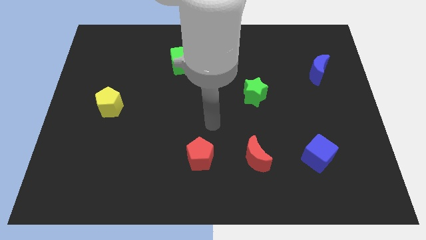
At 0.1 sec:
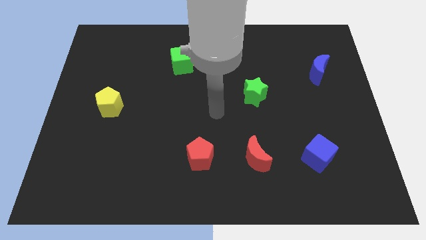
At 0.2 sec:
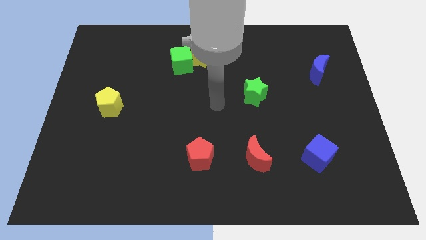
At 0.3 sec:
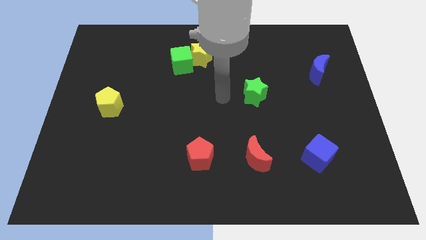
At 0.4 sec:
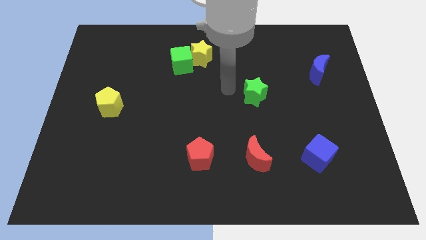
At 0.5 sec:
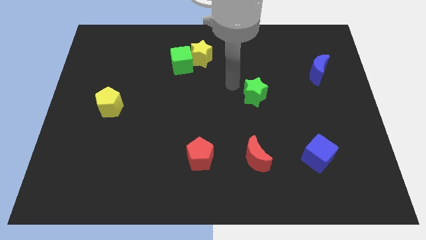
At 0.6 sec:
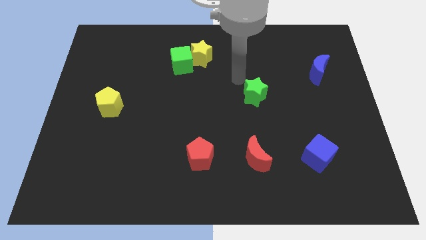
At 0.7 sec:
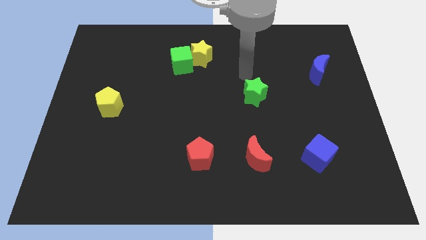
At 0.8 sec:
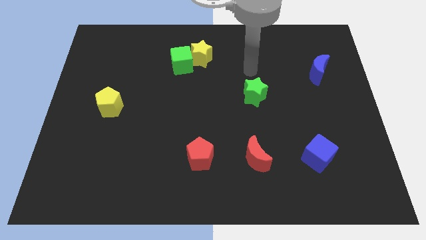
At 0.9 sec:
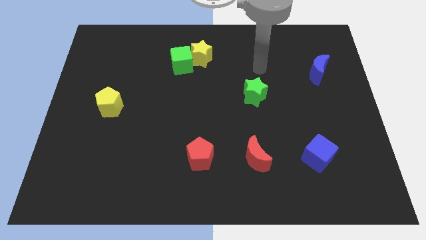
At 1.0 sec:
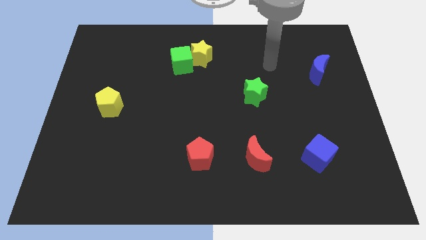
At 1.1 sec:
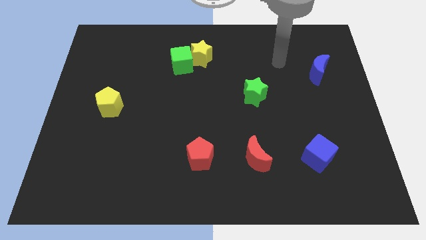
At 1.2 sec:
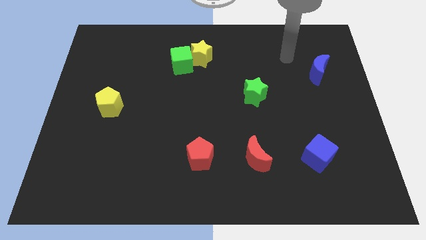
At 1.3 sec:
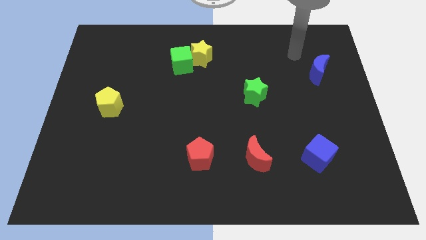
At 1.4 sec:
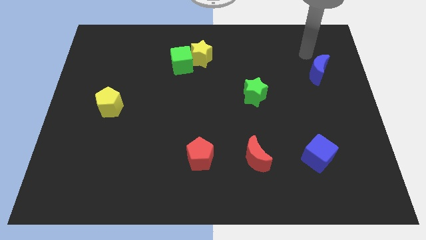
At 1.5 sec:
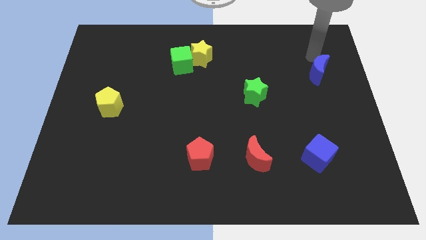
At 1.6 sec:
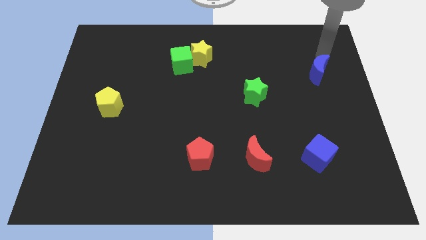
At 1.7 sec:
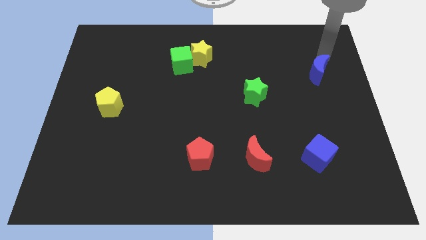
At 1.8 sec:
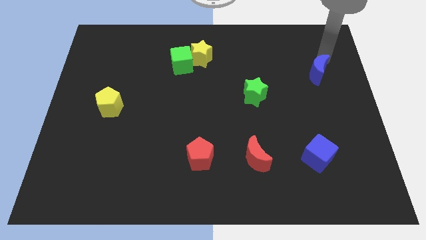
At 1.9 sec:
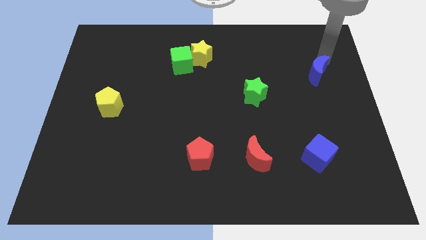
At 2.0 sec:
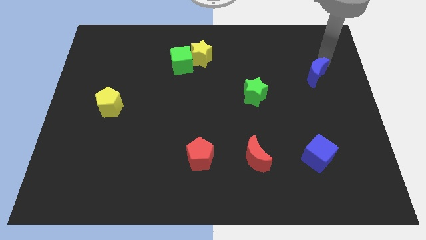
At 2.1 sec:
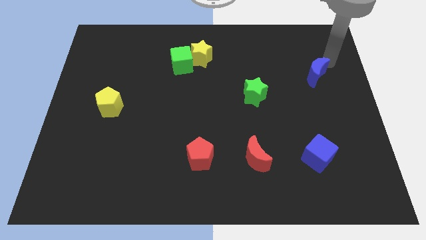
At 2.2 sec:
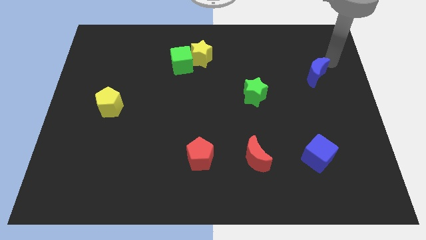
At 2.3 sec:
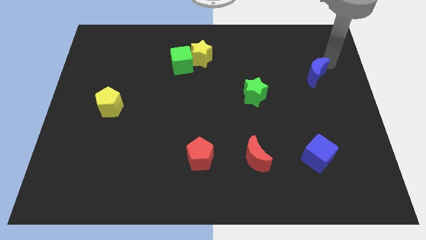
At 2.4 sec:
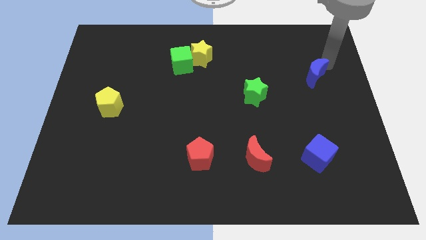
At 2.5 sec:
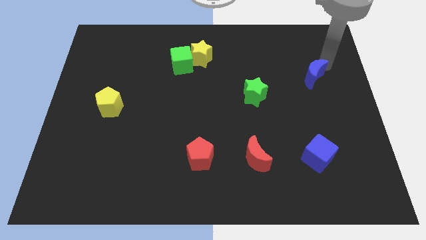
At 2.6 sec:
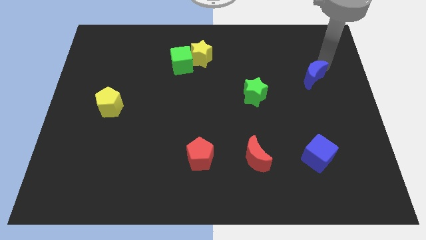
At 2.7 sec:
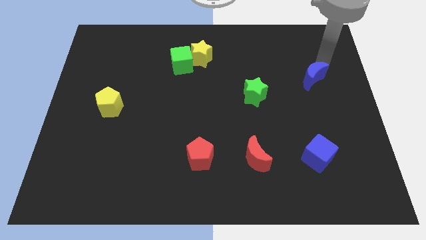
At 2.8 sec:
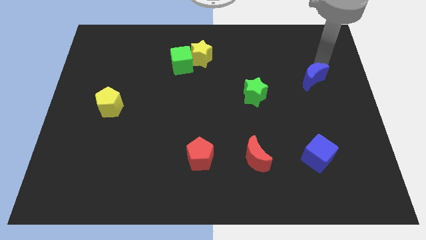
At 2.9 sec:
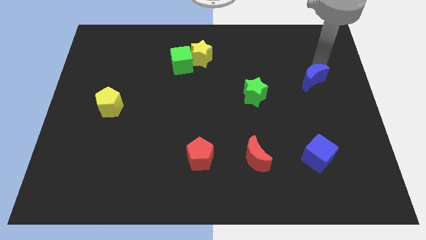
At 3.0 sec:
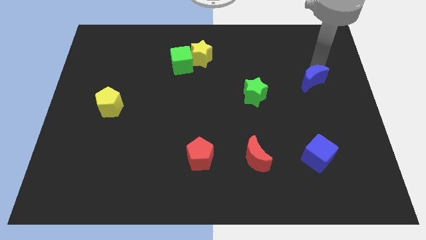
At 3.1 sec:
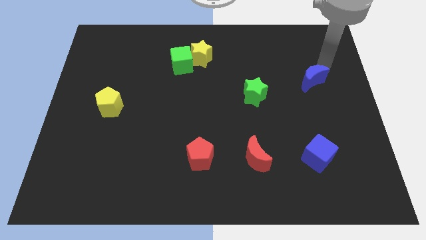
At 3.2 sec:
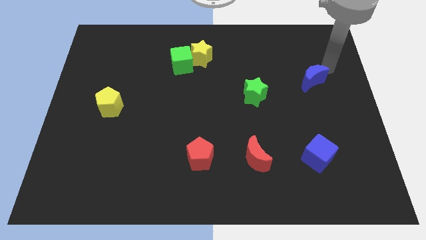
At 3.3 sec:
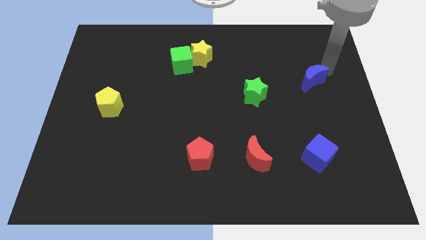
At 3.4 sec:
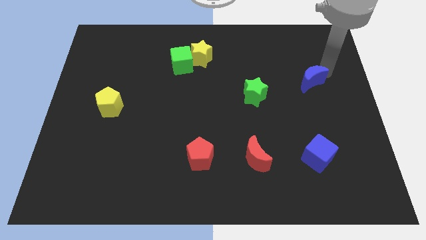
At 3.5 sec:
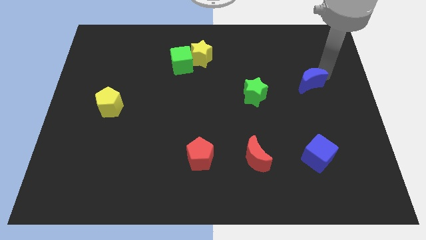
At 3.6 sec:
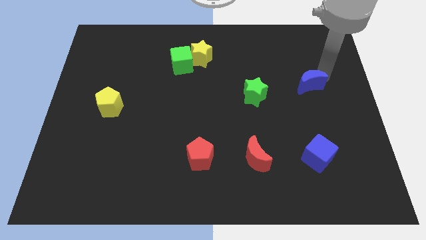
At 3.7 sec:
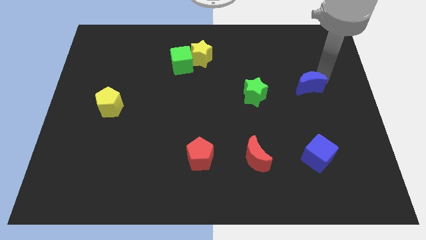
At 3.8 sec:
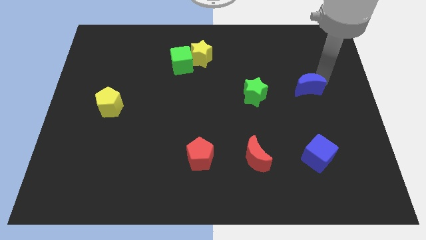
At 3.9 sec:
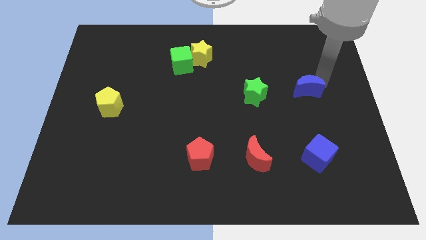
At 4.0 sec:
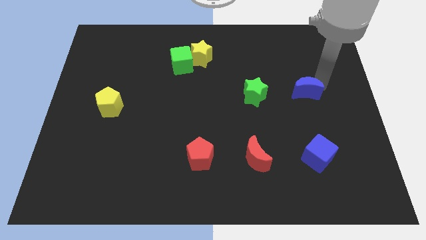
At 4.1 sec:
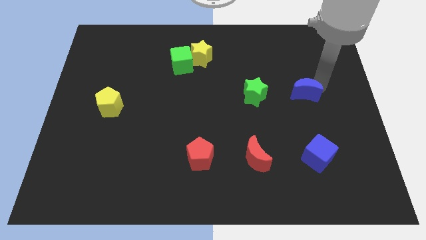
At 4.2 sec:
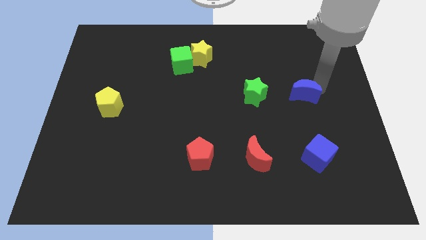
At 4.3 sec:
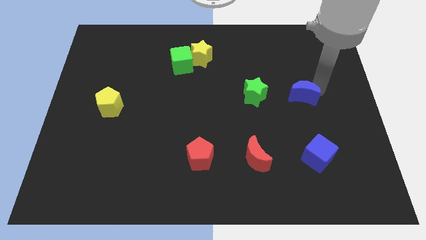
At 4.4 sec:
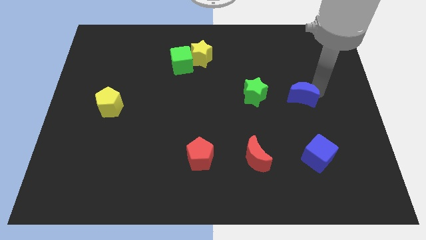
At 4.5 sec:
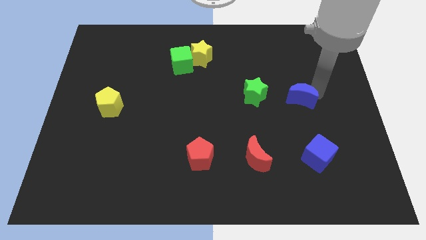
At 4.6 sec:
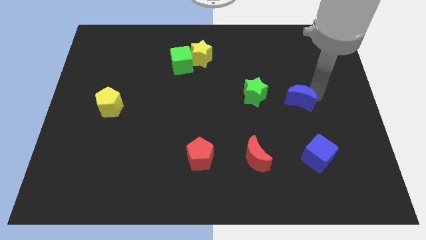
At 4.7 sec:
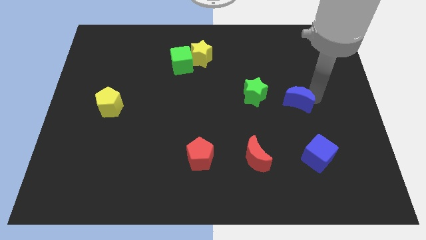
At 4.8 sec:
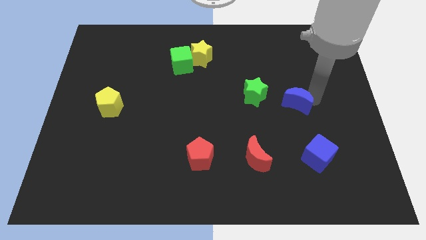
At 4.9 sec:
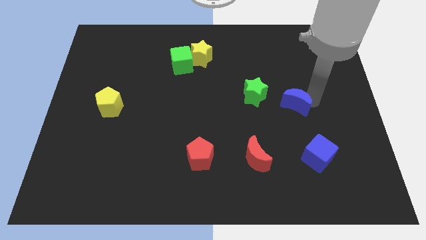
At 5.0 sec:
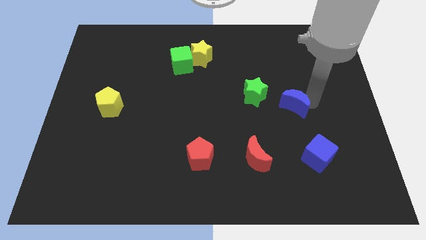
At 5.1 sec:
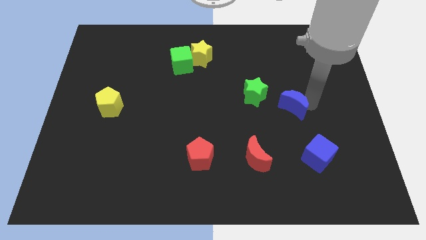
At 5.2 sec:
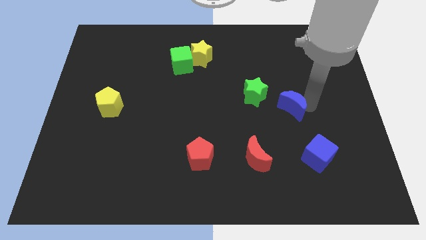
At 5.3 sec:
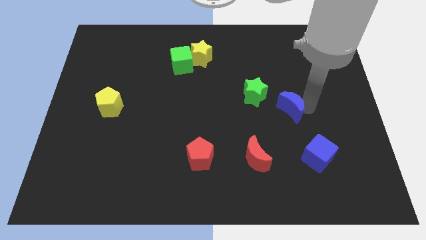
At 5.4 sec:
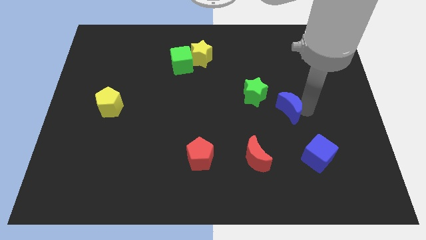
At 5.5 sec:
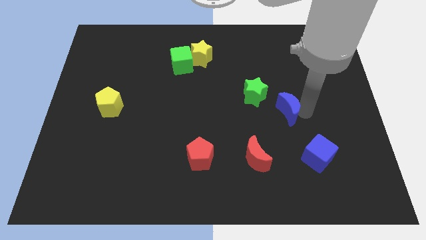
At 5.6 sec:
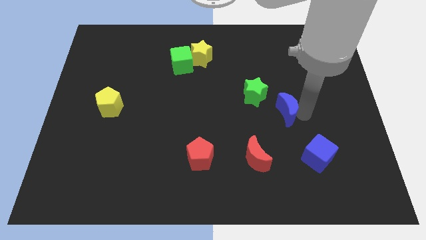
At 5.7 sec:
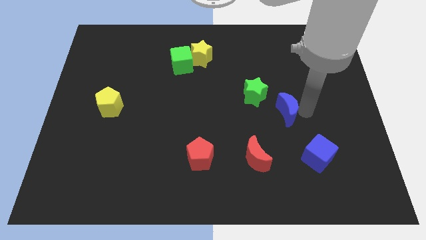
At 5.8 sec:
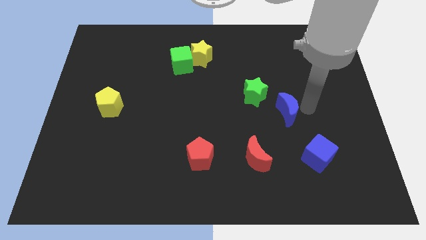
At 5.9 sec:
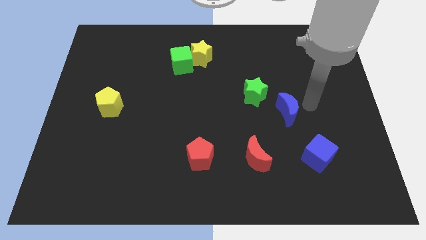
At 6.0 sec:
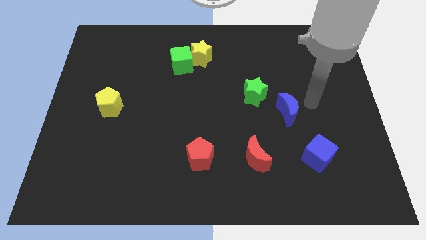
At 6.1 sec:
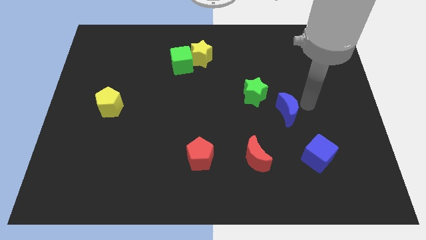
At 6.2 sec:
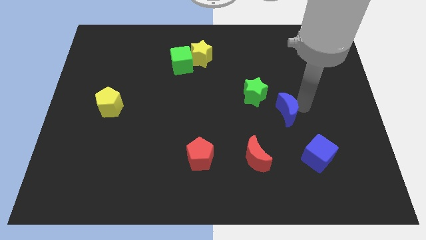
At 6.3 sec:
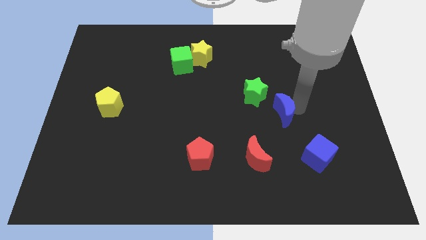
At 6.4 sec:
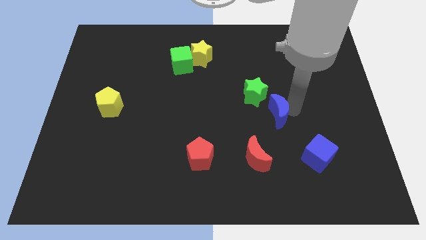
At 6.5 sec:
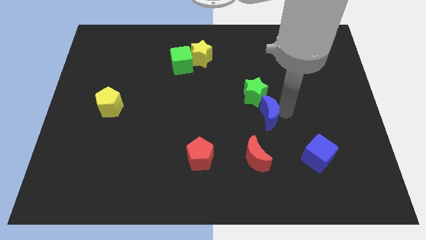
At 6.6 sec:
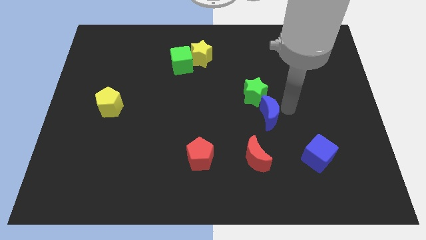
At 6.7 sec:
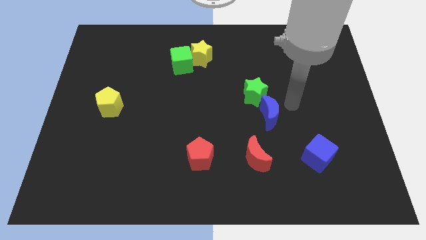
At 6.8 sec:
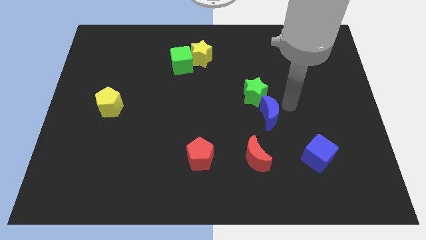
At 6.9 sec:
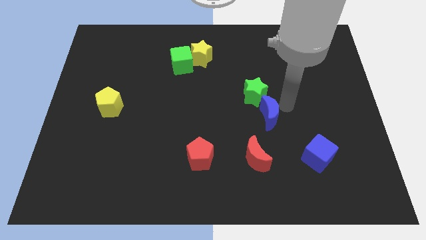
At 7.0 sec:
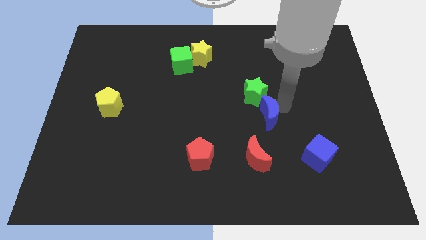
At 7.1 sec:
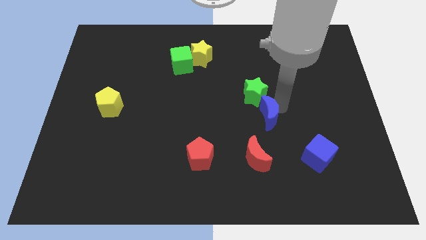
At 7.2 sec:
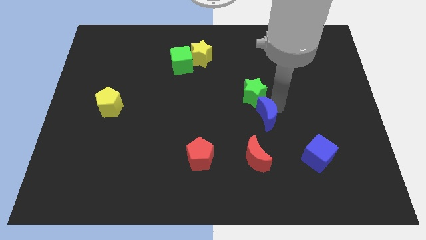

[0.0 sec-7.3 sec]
push the blue moon downwards and then to the left

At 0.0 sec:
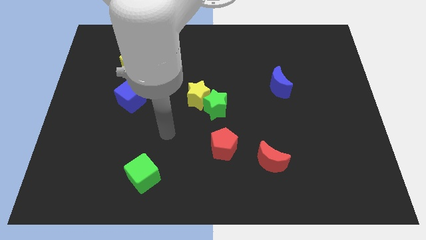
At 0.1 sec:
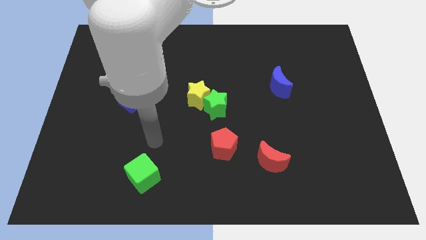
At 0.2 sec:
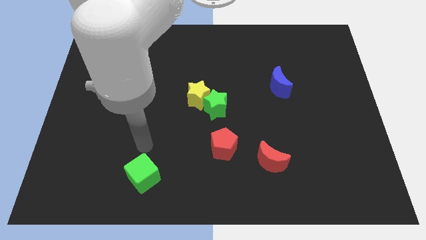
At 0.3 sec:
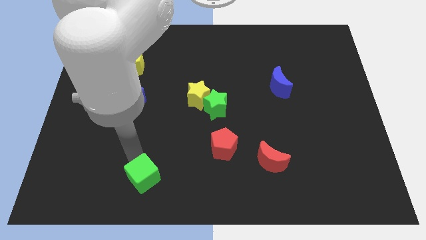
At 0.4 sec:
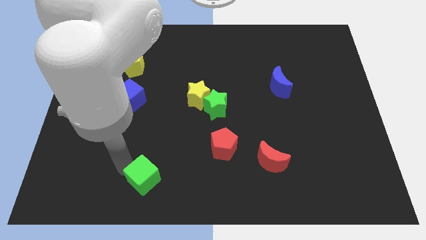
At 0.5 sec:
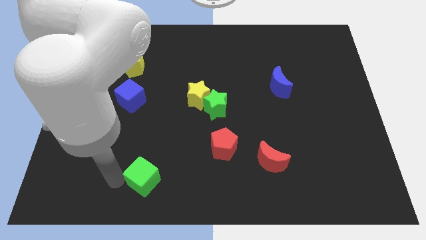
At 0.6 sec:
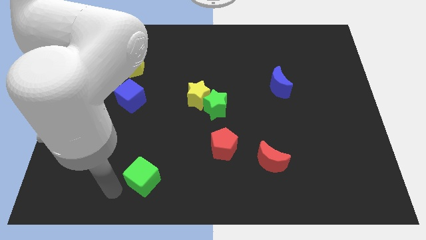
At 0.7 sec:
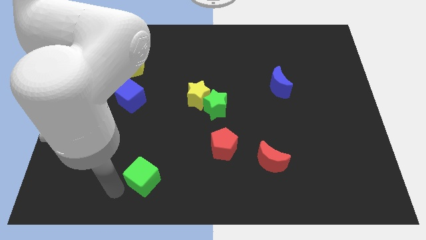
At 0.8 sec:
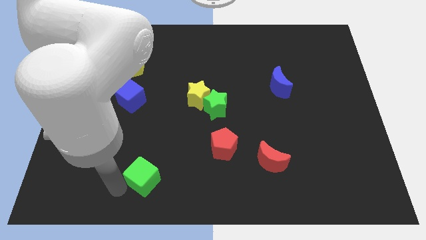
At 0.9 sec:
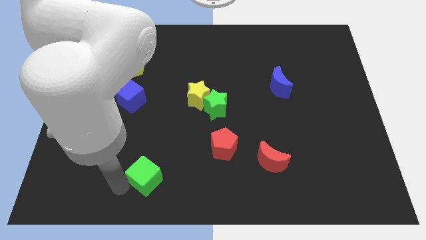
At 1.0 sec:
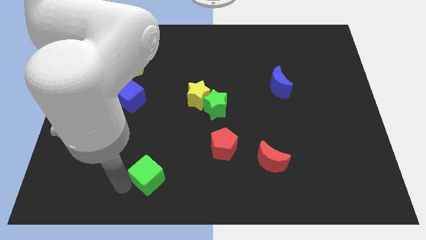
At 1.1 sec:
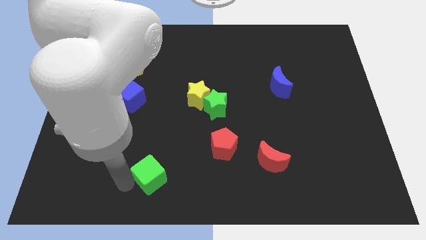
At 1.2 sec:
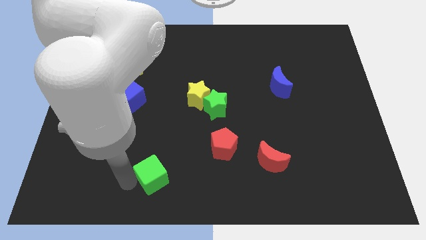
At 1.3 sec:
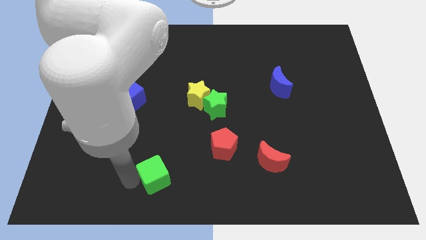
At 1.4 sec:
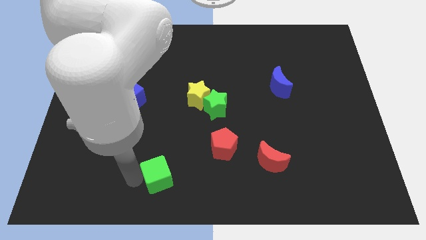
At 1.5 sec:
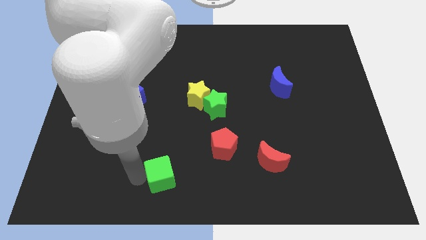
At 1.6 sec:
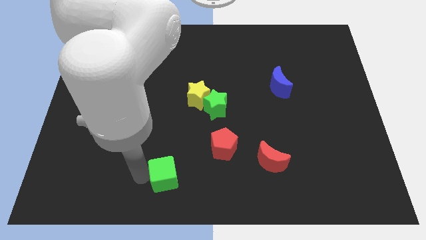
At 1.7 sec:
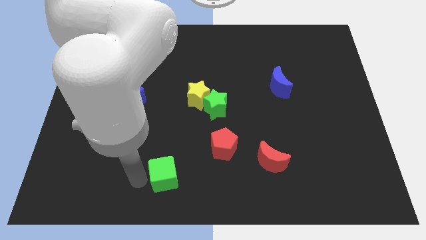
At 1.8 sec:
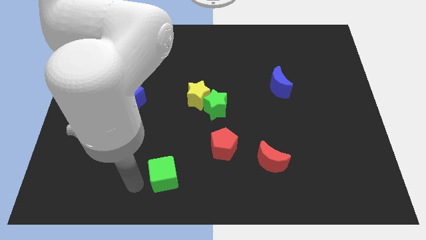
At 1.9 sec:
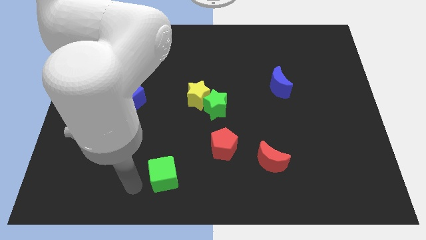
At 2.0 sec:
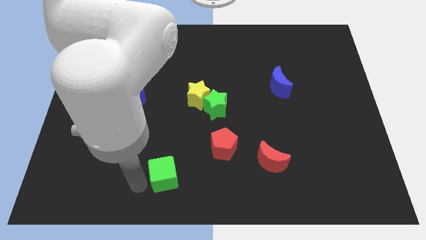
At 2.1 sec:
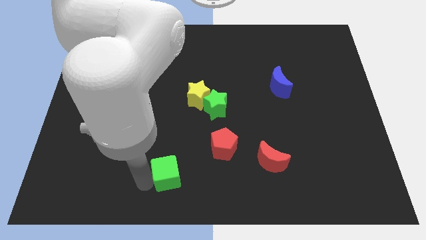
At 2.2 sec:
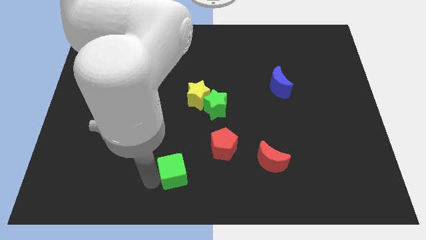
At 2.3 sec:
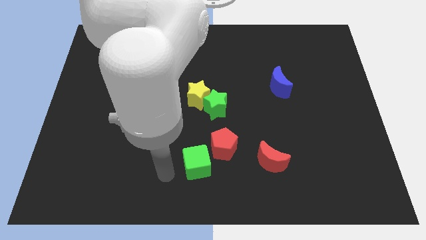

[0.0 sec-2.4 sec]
push the green cube slightly to the right
